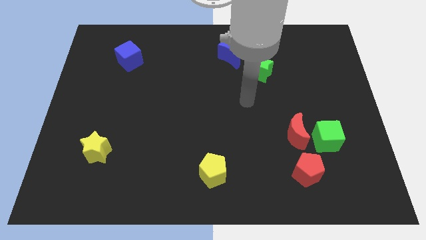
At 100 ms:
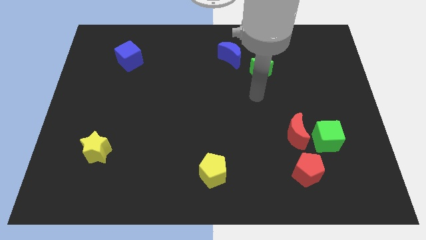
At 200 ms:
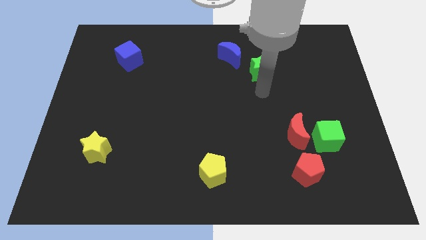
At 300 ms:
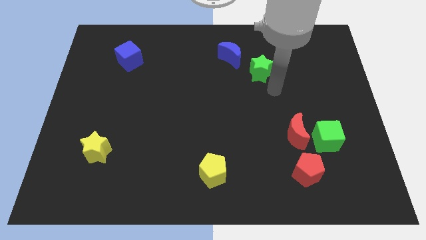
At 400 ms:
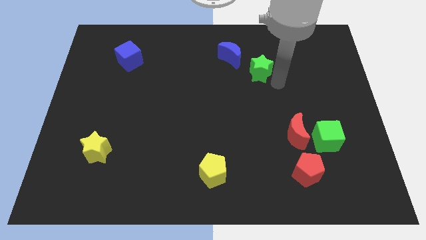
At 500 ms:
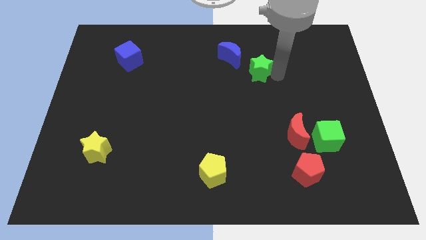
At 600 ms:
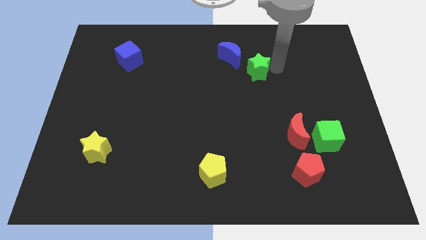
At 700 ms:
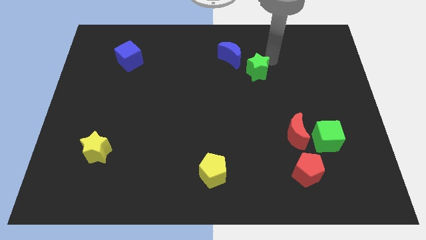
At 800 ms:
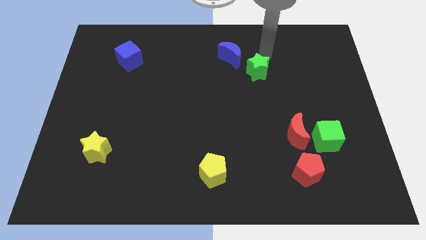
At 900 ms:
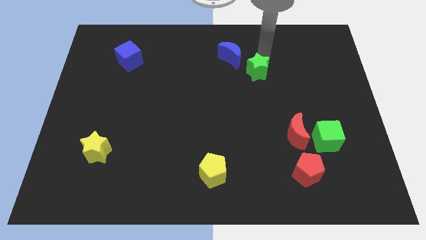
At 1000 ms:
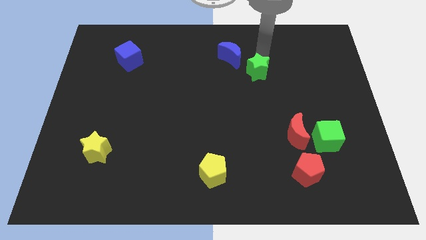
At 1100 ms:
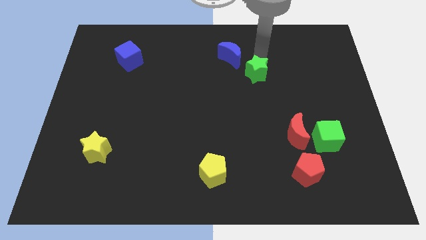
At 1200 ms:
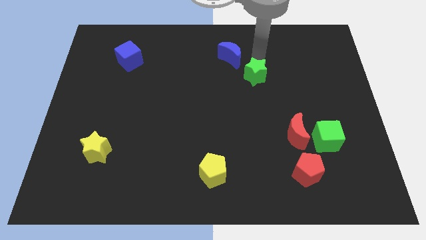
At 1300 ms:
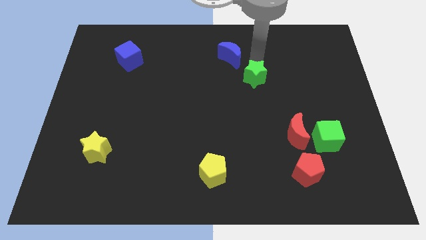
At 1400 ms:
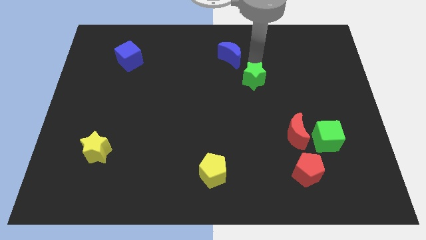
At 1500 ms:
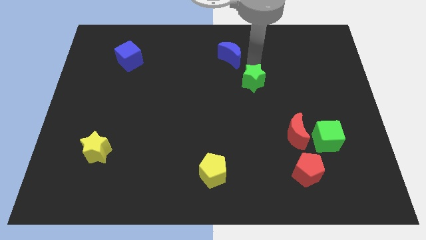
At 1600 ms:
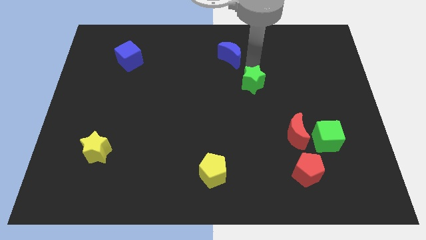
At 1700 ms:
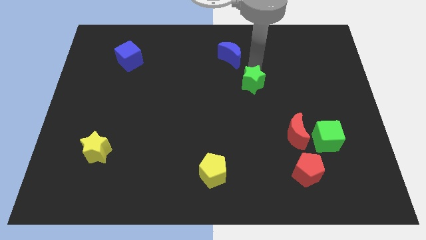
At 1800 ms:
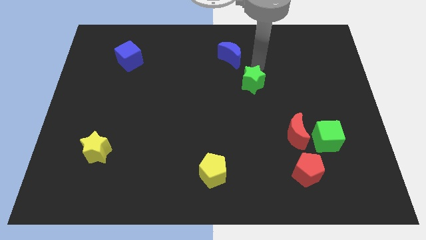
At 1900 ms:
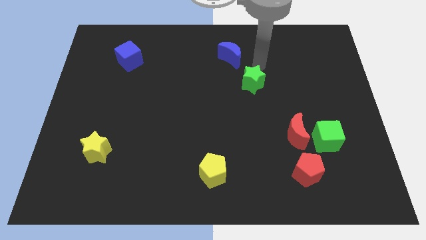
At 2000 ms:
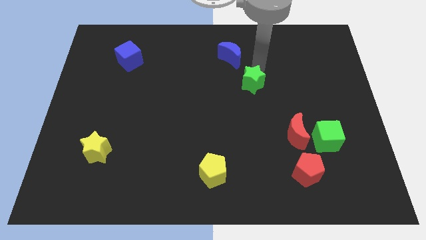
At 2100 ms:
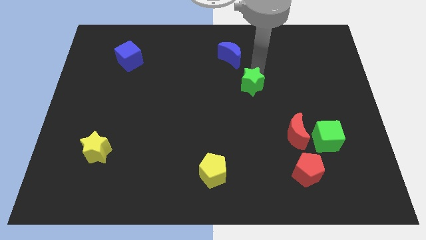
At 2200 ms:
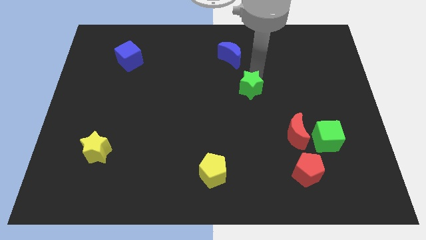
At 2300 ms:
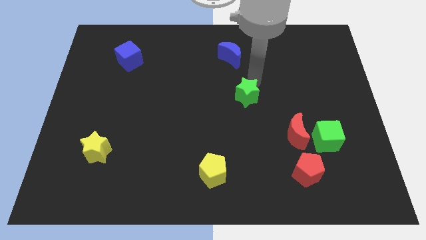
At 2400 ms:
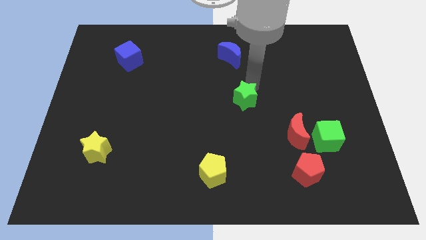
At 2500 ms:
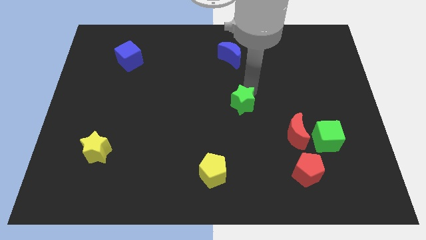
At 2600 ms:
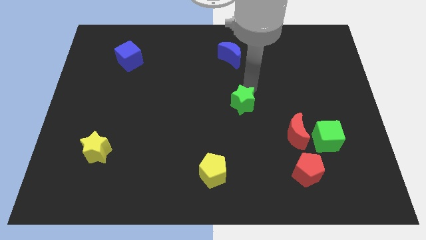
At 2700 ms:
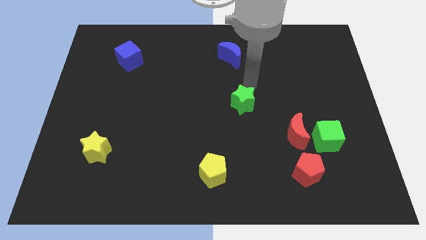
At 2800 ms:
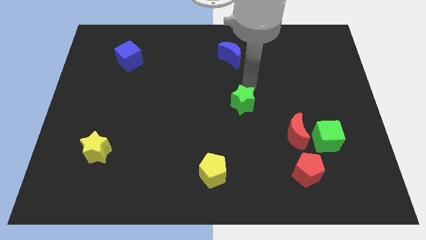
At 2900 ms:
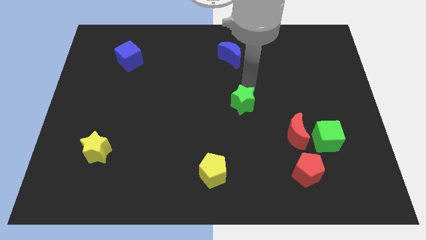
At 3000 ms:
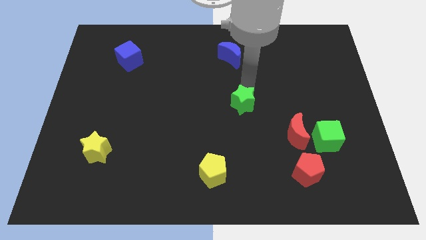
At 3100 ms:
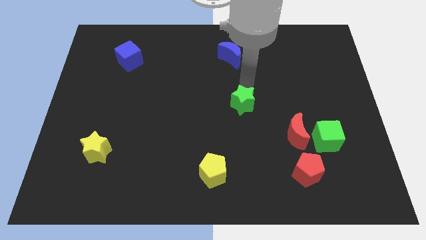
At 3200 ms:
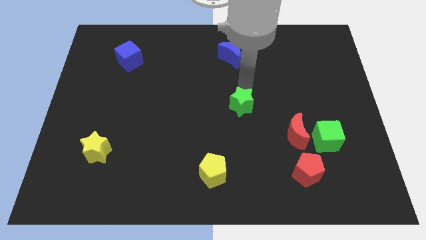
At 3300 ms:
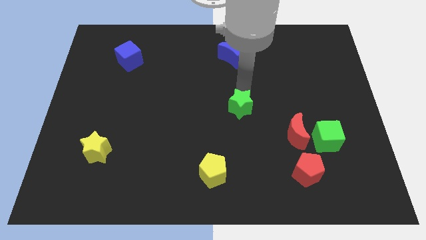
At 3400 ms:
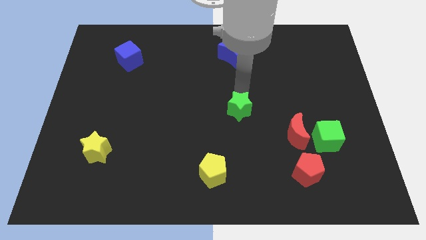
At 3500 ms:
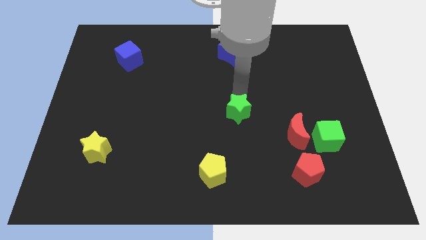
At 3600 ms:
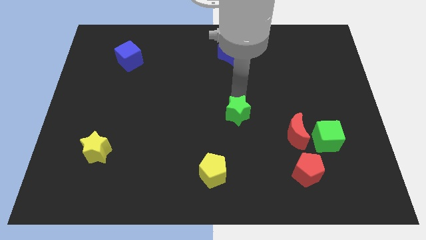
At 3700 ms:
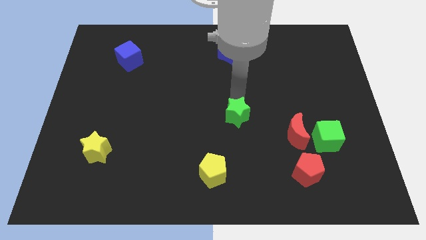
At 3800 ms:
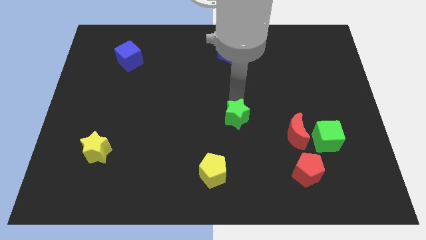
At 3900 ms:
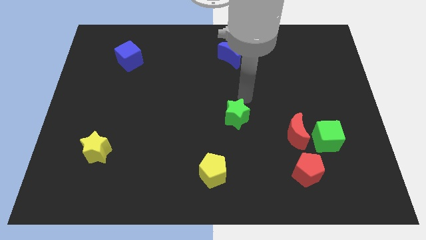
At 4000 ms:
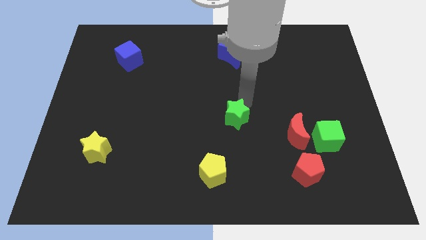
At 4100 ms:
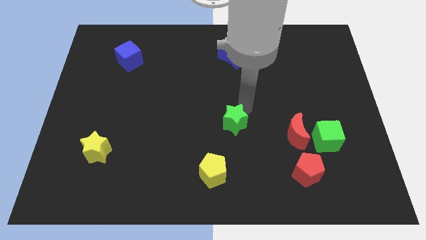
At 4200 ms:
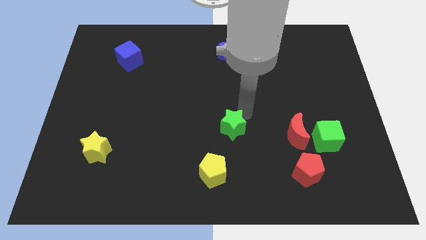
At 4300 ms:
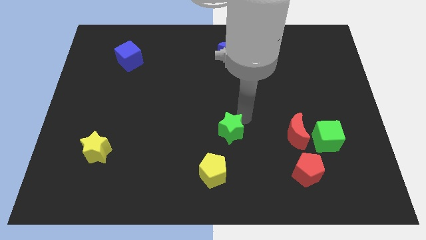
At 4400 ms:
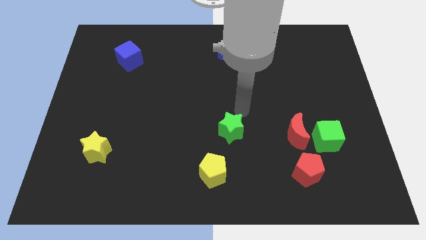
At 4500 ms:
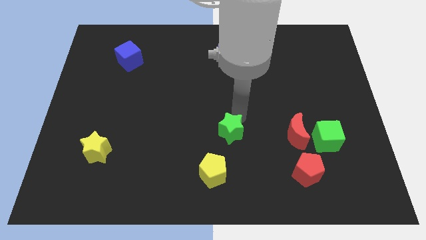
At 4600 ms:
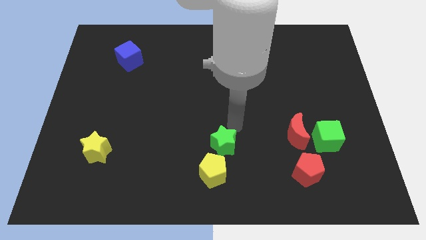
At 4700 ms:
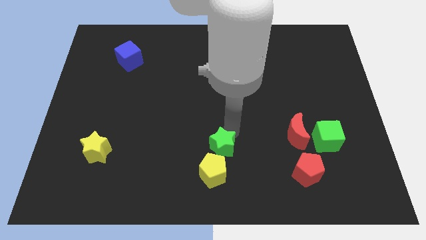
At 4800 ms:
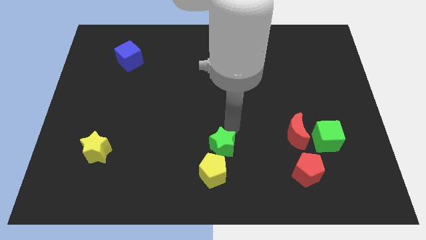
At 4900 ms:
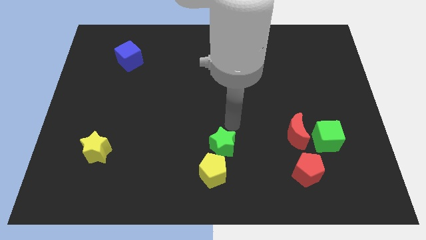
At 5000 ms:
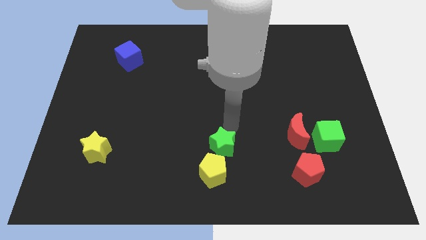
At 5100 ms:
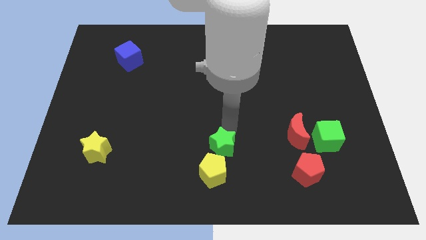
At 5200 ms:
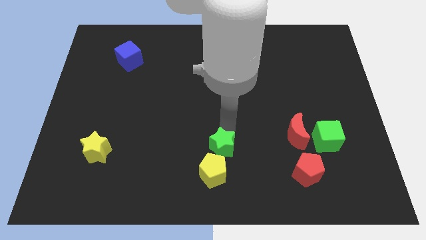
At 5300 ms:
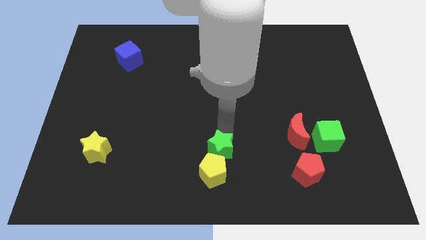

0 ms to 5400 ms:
put the green star to the yellow pentagon

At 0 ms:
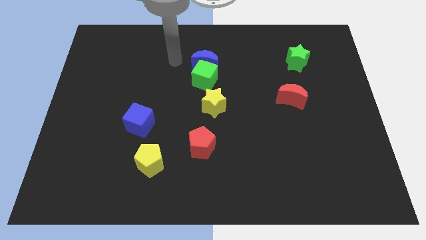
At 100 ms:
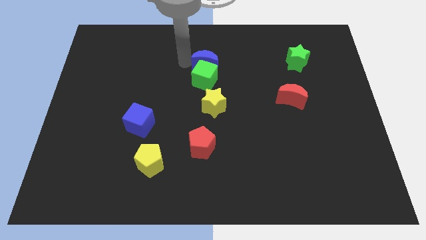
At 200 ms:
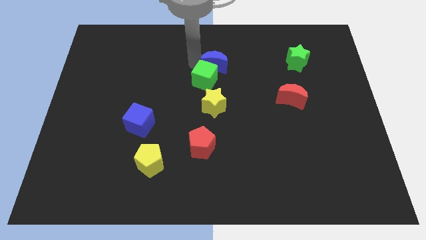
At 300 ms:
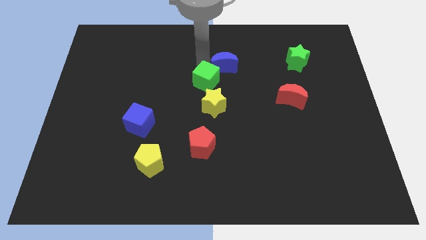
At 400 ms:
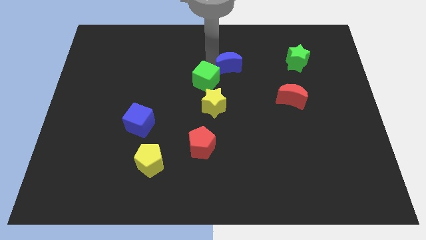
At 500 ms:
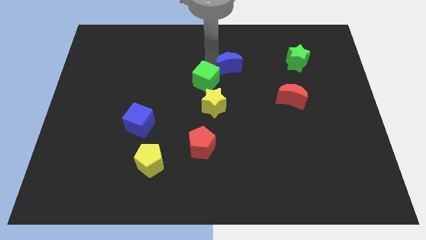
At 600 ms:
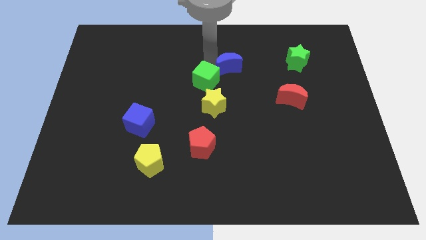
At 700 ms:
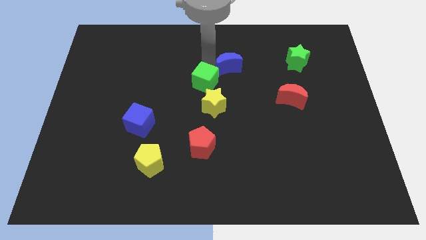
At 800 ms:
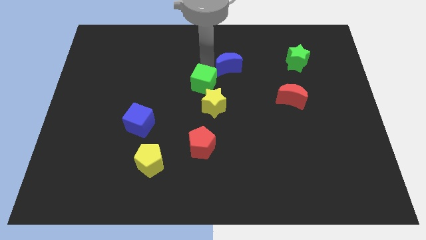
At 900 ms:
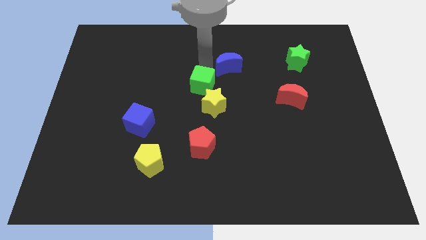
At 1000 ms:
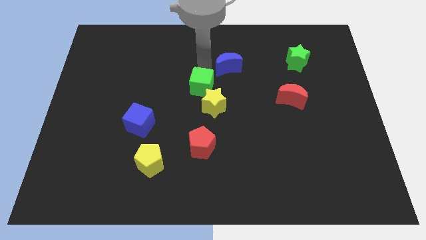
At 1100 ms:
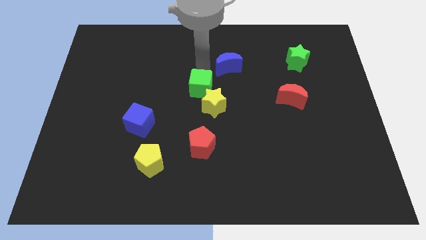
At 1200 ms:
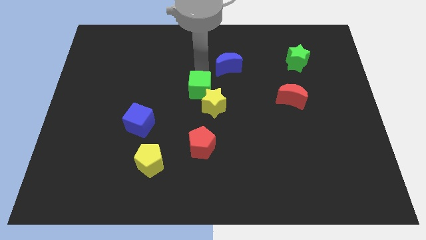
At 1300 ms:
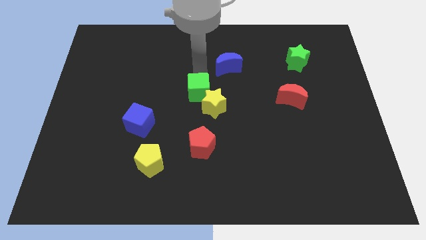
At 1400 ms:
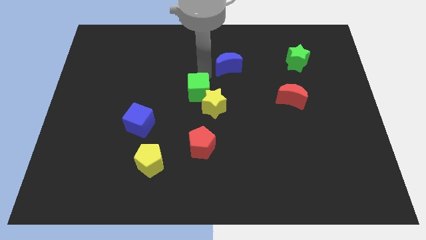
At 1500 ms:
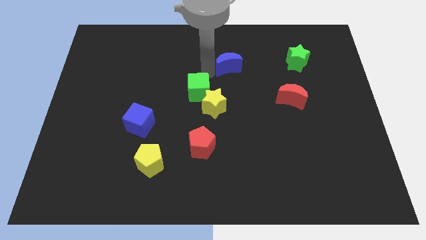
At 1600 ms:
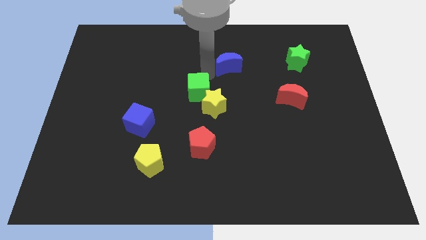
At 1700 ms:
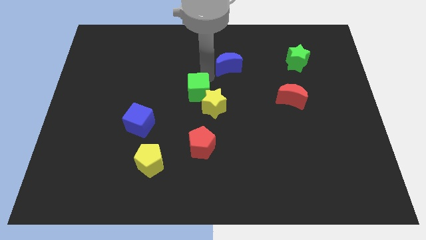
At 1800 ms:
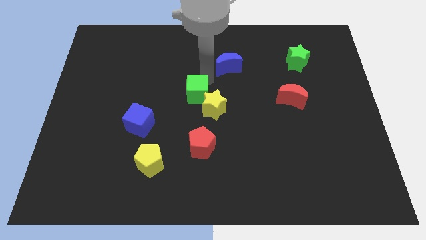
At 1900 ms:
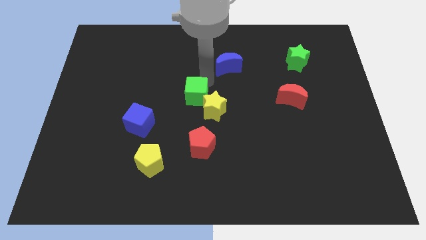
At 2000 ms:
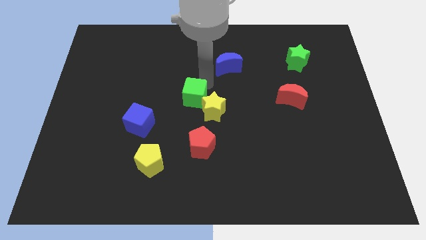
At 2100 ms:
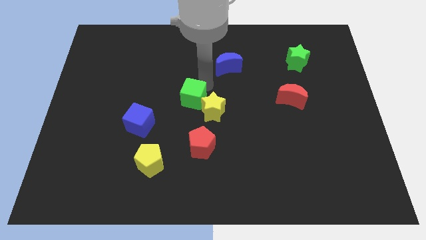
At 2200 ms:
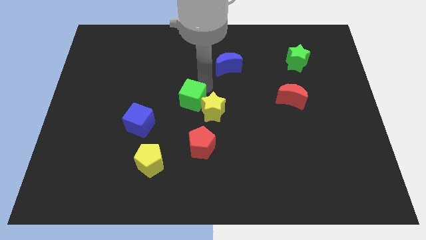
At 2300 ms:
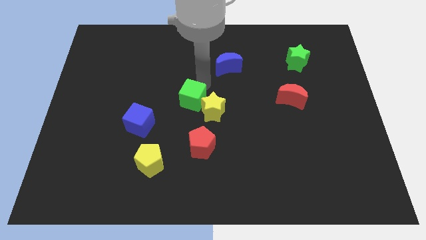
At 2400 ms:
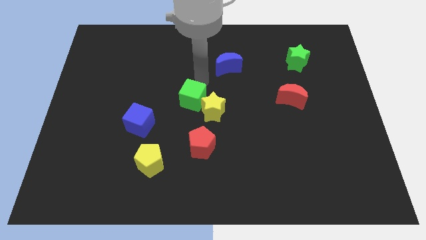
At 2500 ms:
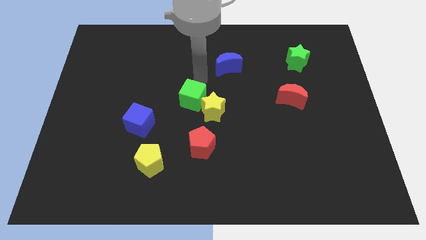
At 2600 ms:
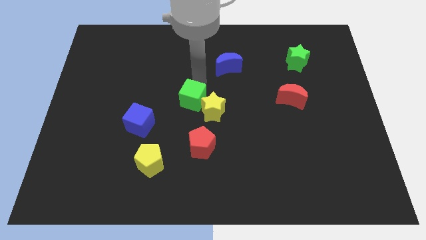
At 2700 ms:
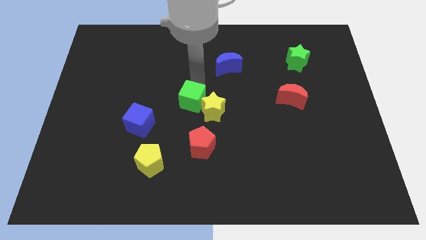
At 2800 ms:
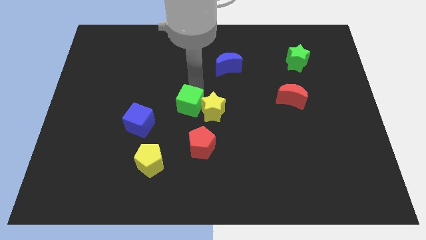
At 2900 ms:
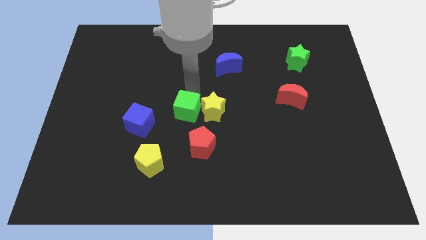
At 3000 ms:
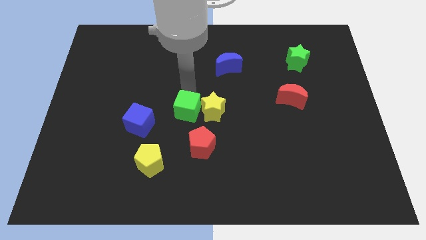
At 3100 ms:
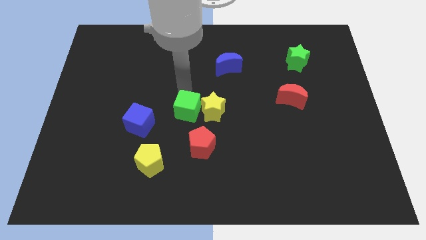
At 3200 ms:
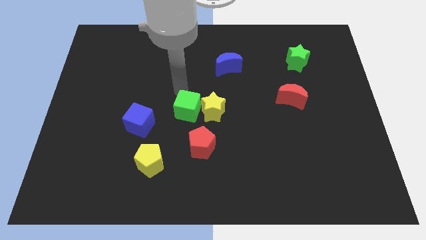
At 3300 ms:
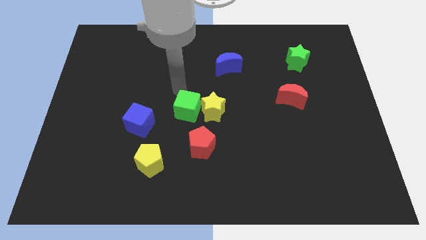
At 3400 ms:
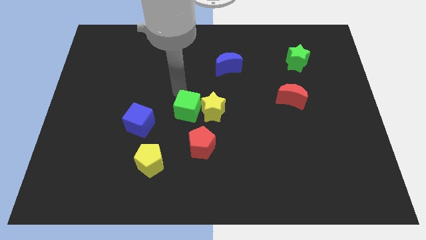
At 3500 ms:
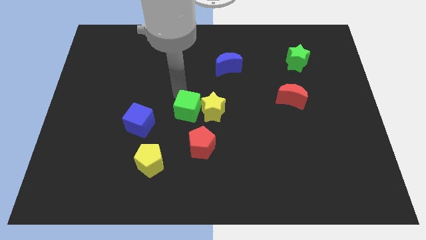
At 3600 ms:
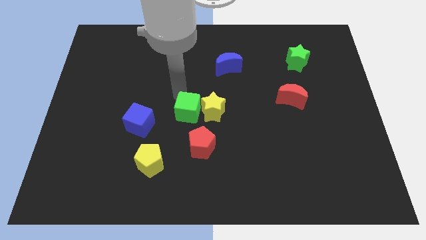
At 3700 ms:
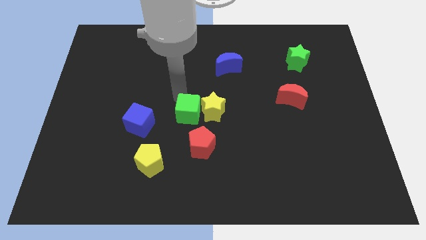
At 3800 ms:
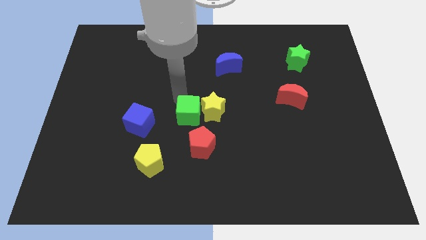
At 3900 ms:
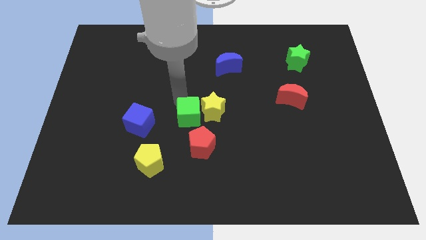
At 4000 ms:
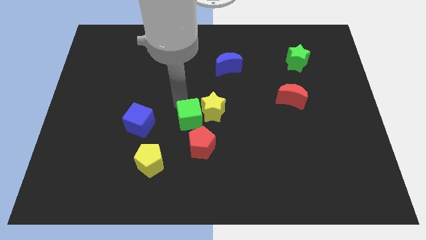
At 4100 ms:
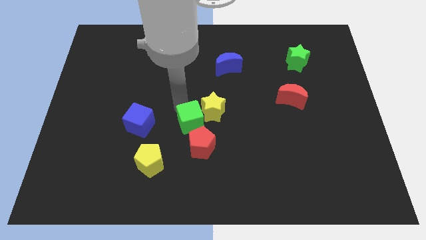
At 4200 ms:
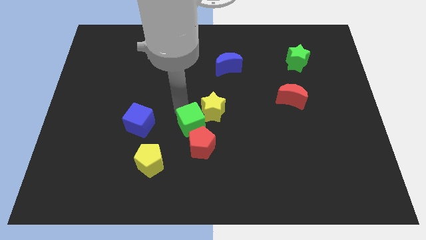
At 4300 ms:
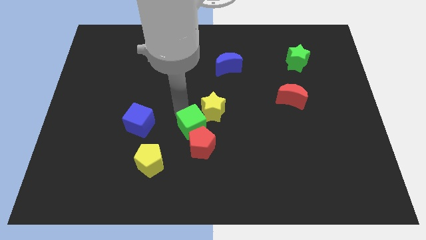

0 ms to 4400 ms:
push the green cube next to the red pentagon
